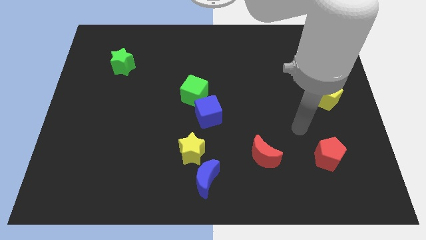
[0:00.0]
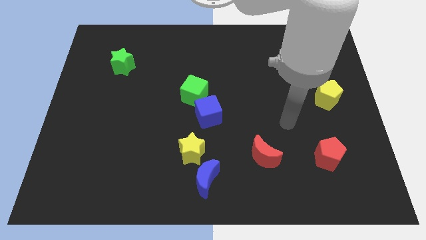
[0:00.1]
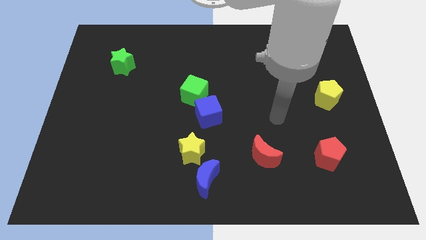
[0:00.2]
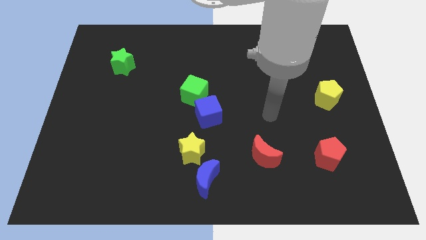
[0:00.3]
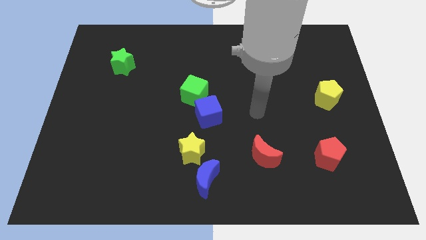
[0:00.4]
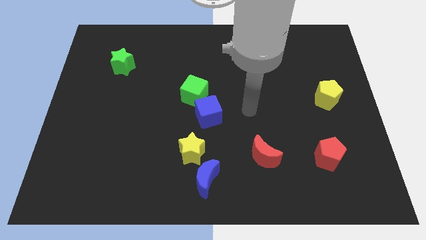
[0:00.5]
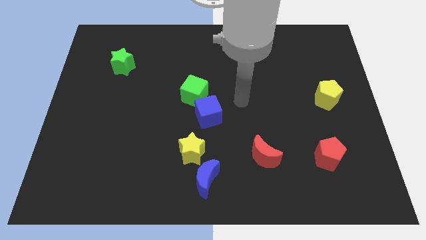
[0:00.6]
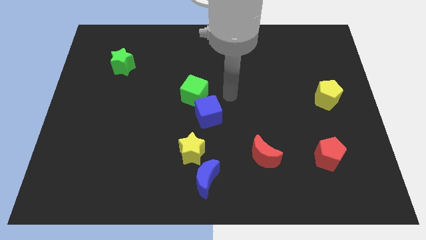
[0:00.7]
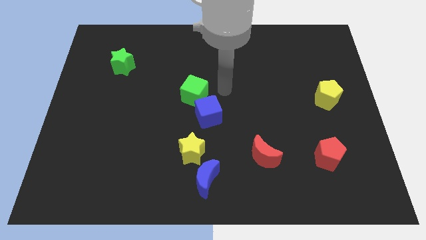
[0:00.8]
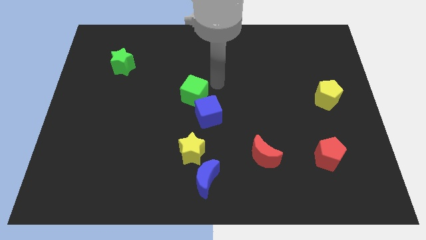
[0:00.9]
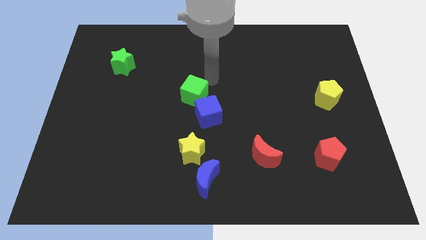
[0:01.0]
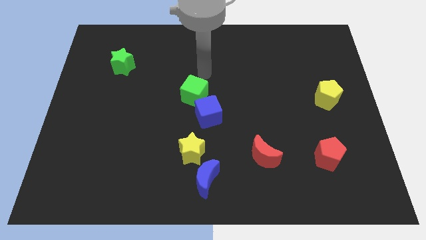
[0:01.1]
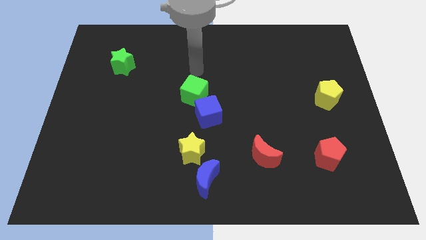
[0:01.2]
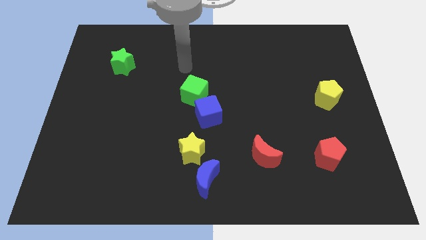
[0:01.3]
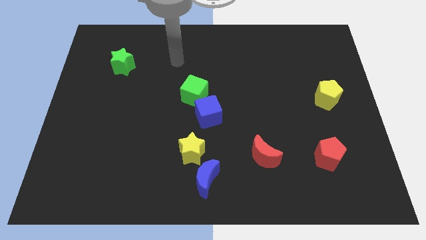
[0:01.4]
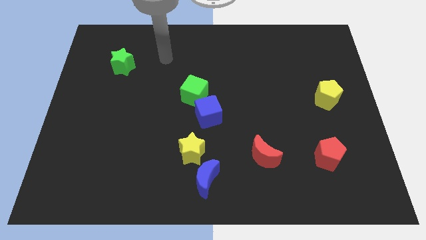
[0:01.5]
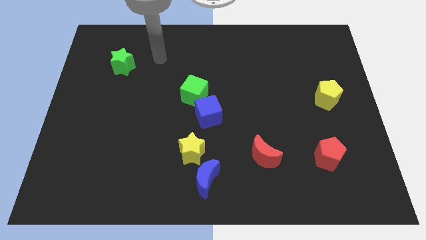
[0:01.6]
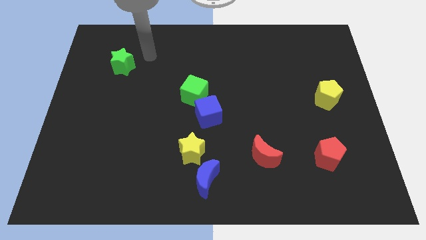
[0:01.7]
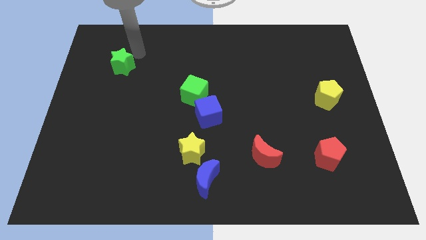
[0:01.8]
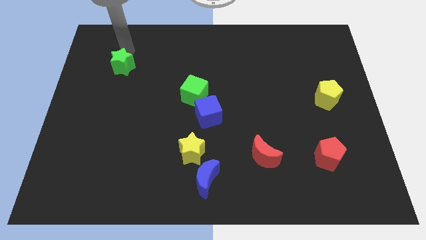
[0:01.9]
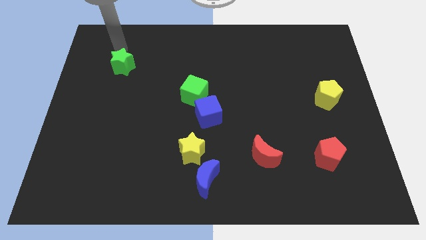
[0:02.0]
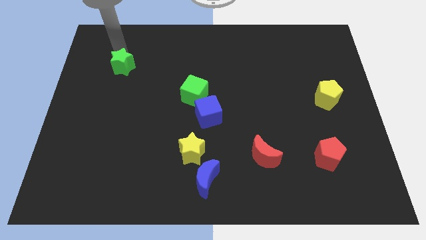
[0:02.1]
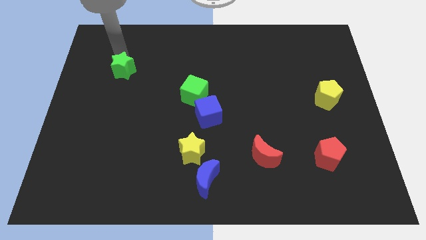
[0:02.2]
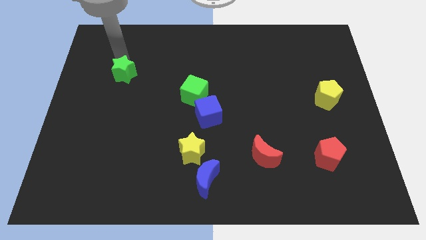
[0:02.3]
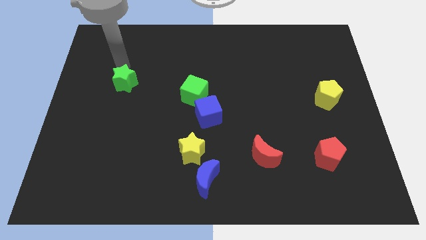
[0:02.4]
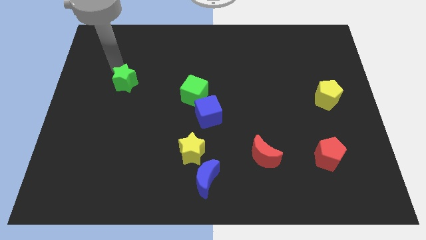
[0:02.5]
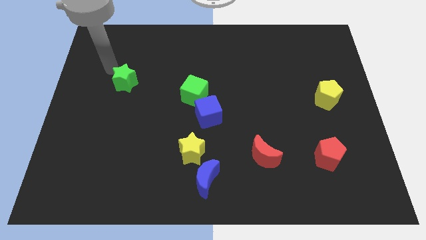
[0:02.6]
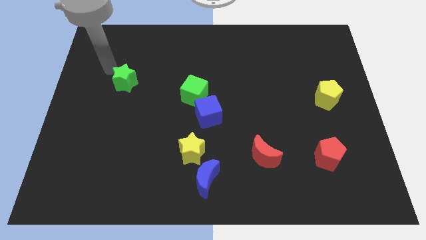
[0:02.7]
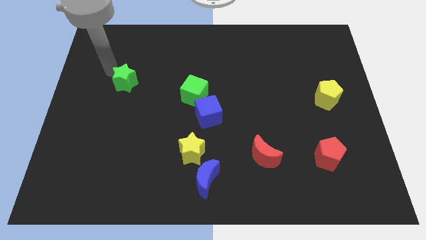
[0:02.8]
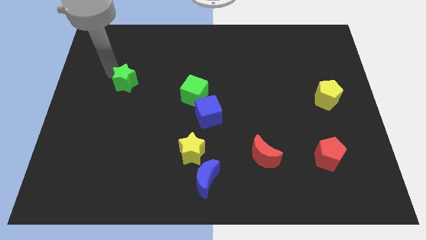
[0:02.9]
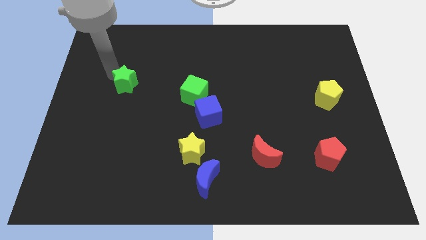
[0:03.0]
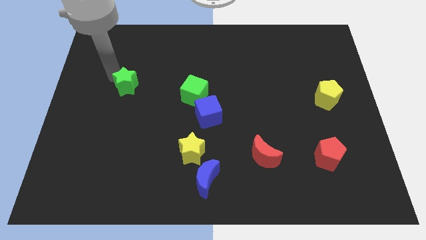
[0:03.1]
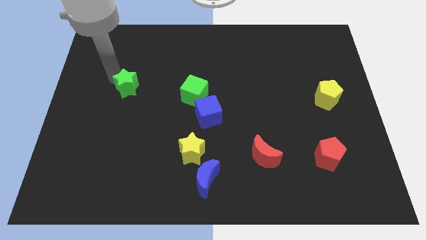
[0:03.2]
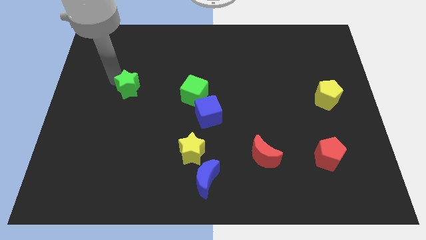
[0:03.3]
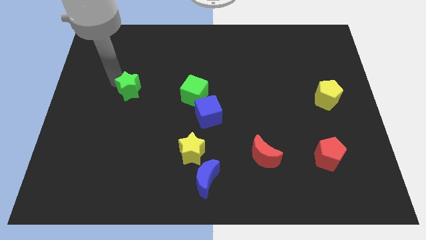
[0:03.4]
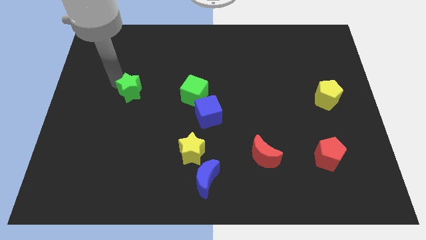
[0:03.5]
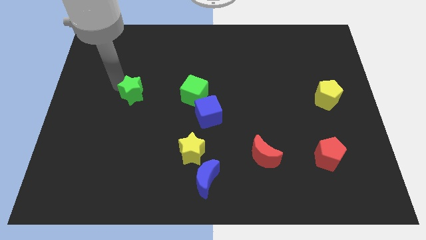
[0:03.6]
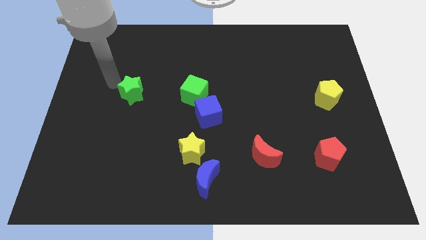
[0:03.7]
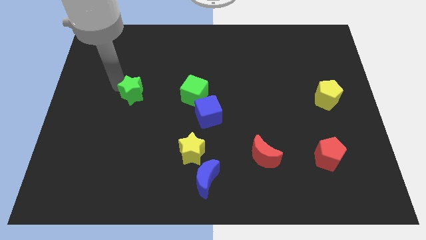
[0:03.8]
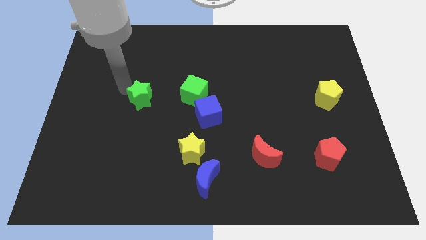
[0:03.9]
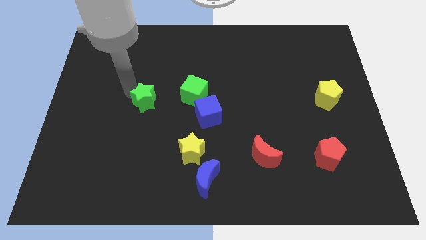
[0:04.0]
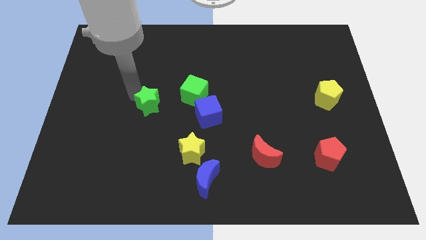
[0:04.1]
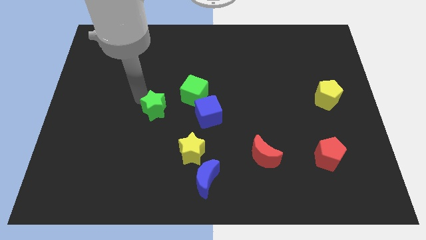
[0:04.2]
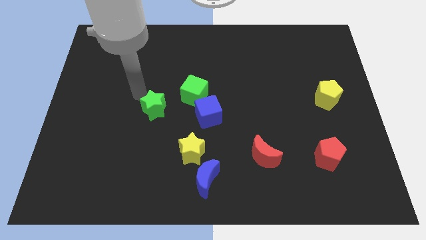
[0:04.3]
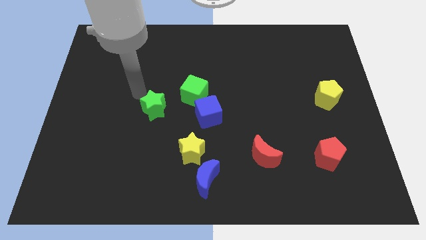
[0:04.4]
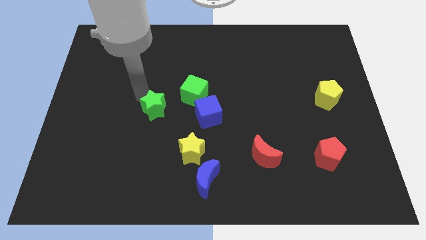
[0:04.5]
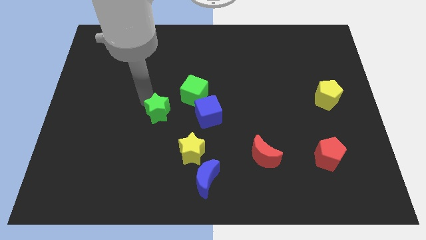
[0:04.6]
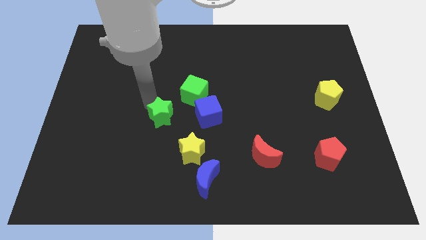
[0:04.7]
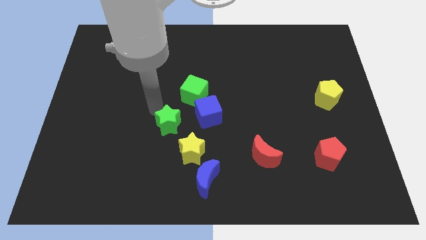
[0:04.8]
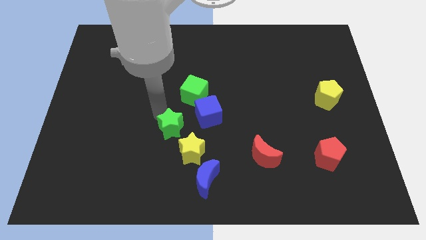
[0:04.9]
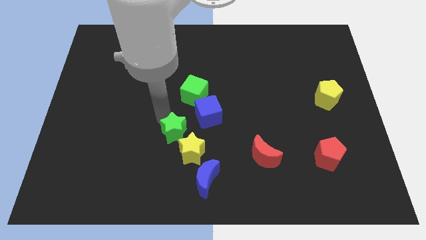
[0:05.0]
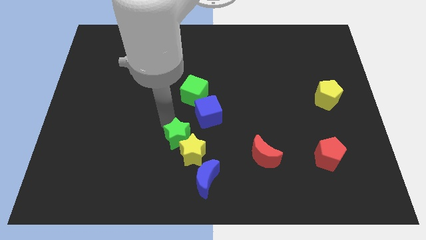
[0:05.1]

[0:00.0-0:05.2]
move the green star to the yellow star

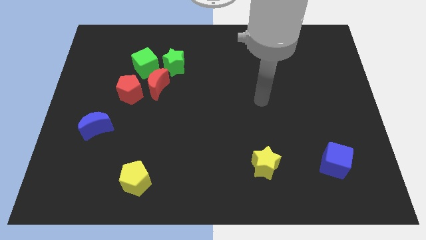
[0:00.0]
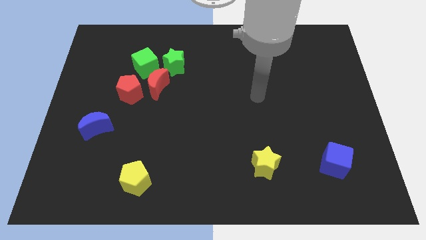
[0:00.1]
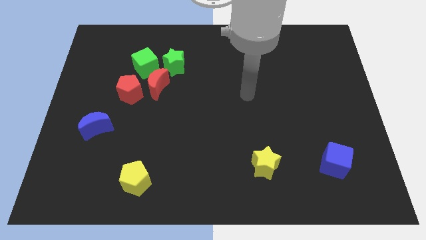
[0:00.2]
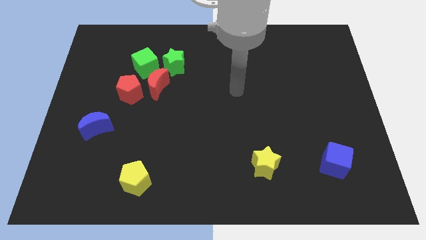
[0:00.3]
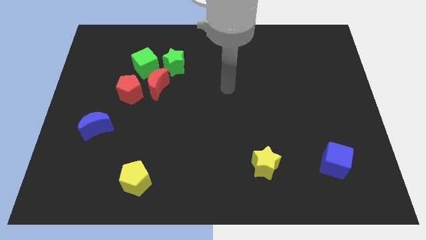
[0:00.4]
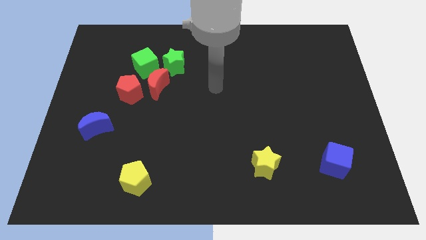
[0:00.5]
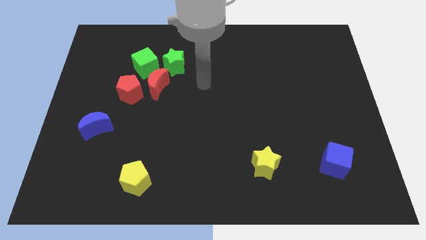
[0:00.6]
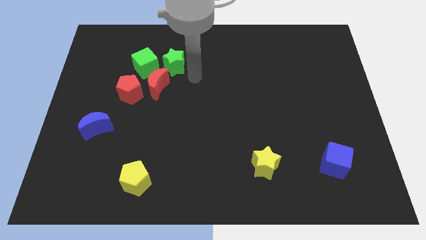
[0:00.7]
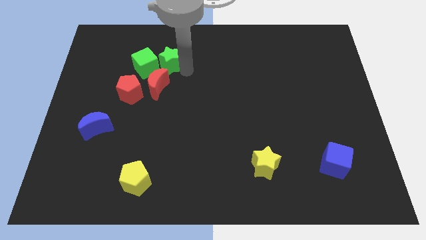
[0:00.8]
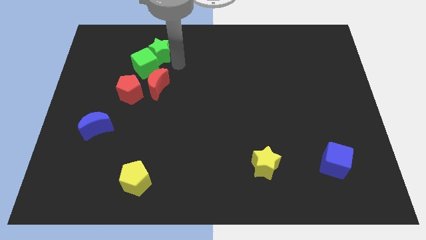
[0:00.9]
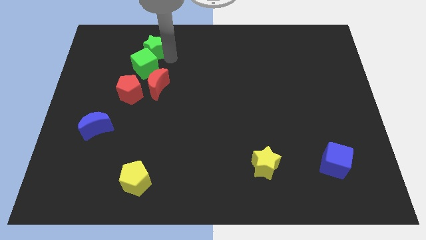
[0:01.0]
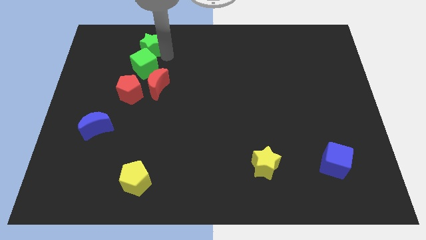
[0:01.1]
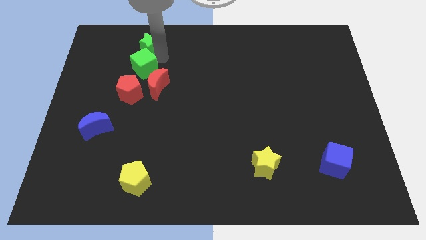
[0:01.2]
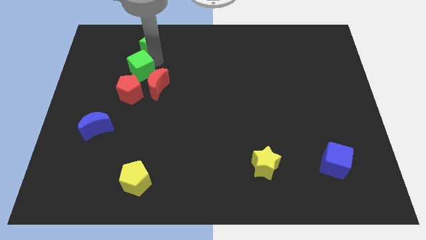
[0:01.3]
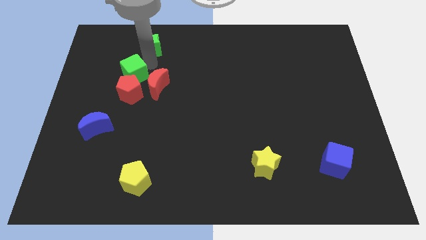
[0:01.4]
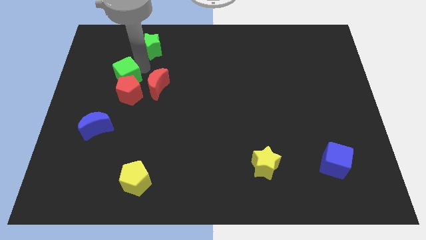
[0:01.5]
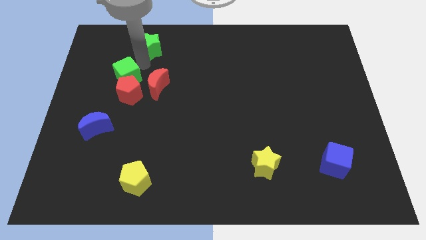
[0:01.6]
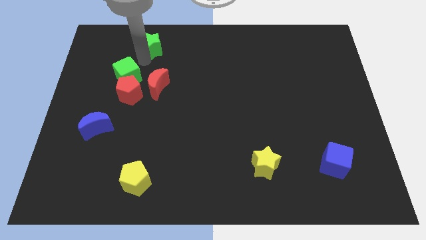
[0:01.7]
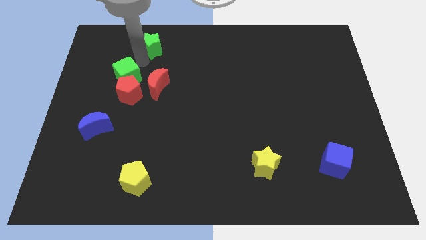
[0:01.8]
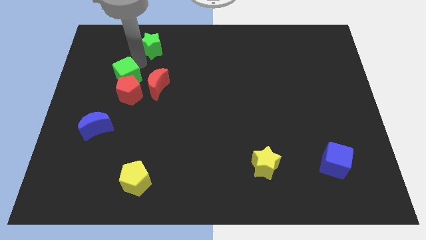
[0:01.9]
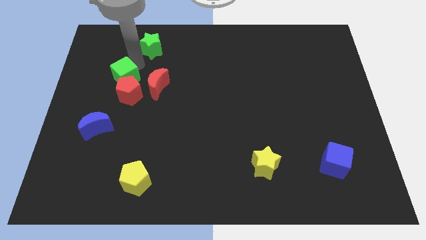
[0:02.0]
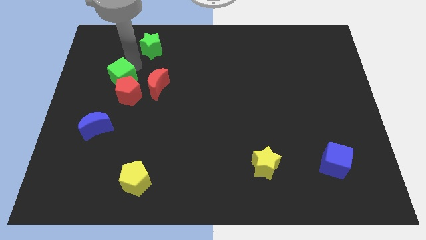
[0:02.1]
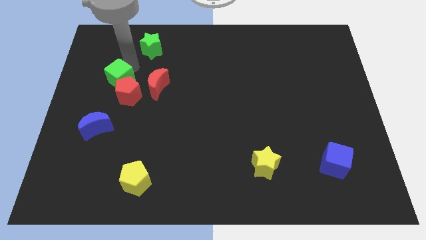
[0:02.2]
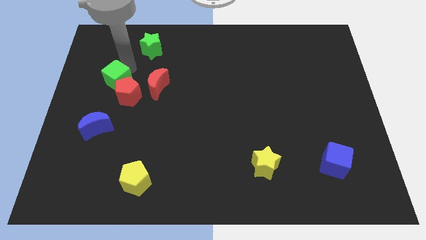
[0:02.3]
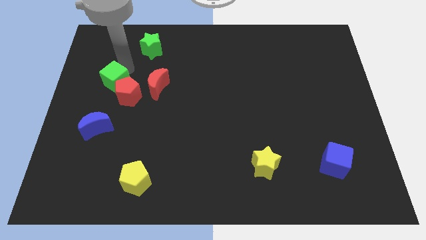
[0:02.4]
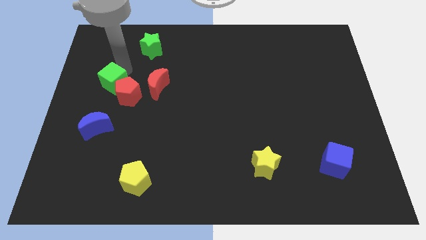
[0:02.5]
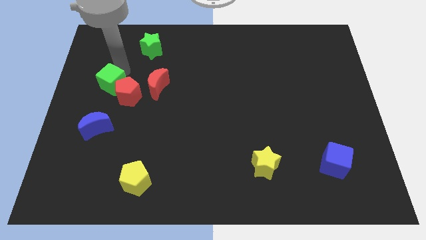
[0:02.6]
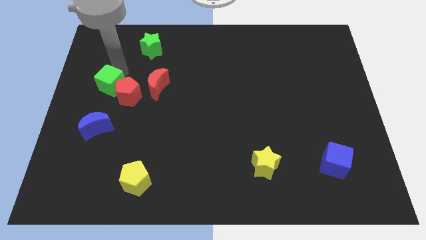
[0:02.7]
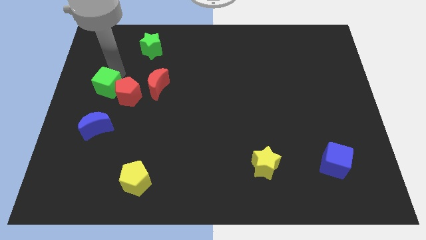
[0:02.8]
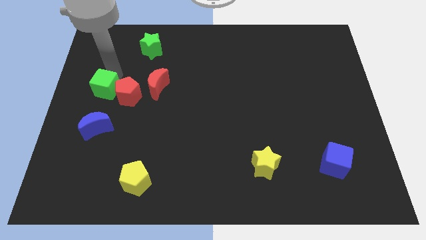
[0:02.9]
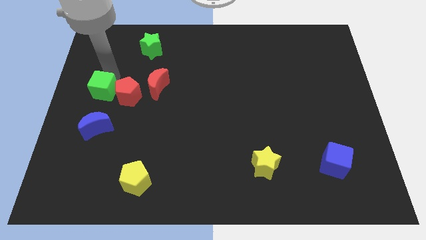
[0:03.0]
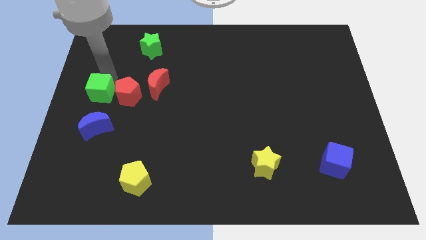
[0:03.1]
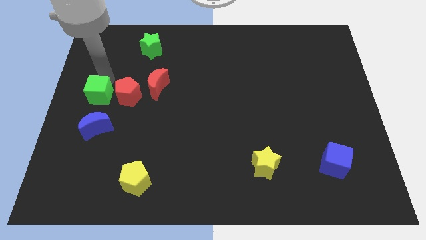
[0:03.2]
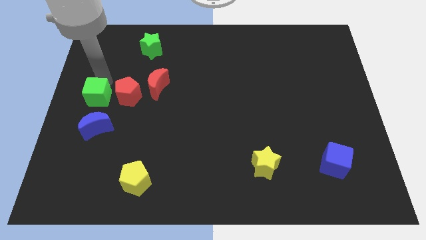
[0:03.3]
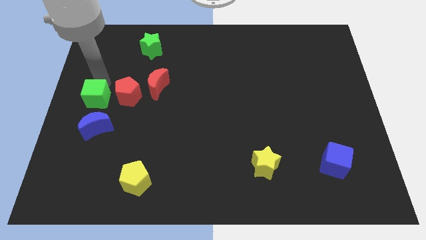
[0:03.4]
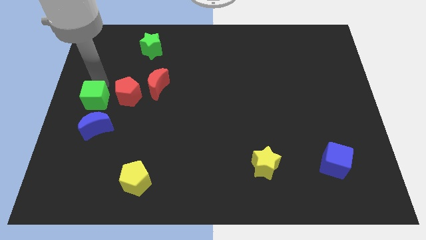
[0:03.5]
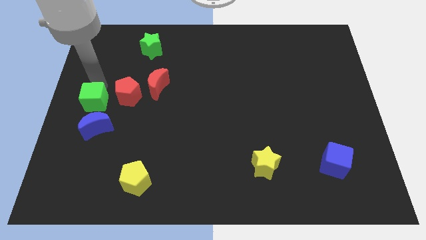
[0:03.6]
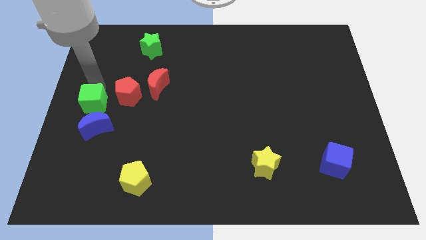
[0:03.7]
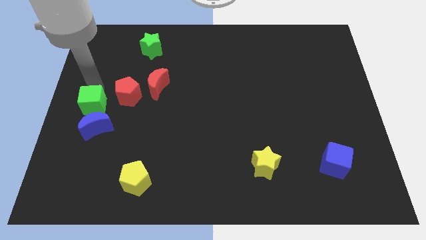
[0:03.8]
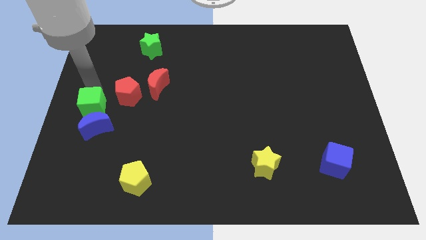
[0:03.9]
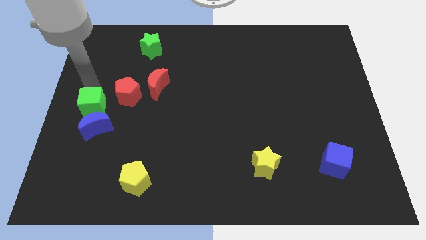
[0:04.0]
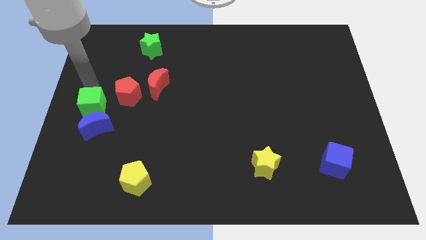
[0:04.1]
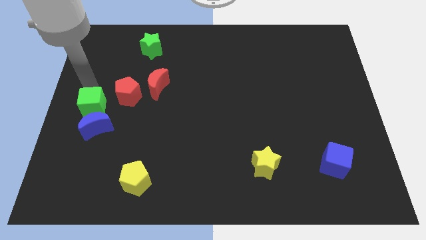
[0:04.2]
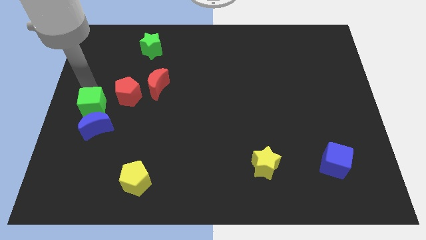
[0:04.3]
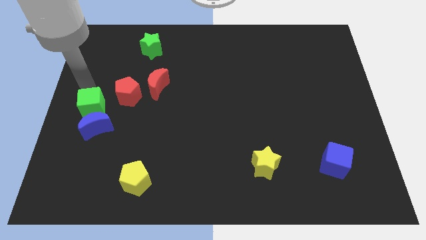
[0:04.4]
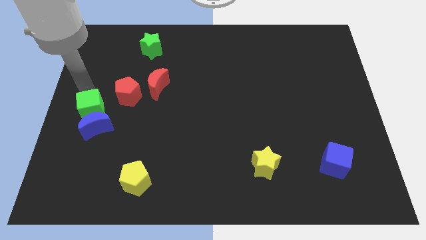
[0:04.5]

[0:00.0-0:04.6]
slide the green cube next to the blue moon
